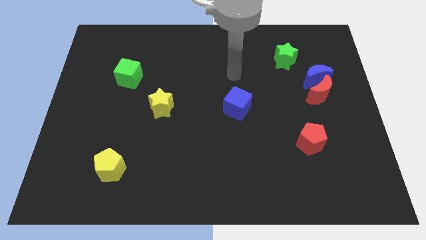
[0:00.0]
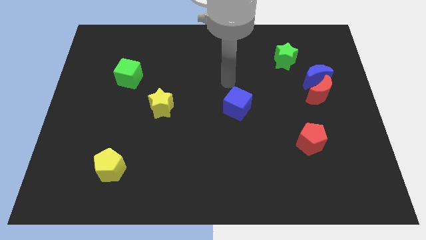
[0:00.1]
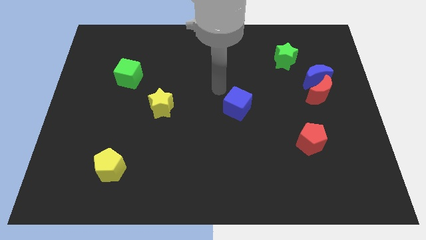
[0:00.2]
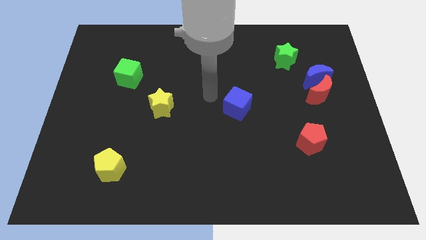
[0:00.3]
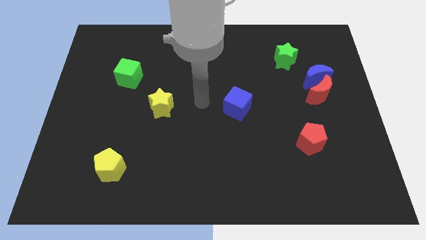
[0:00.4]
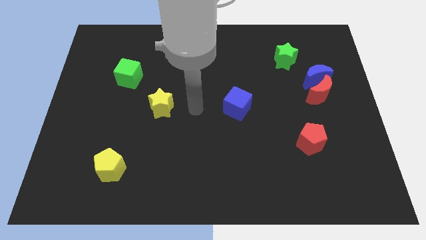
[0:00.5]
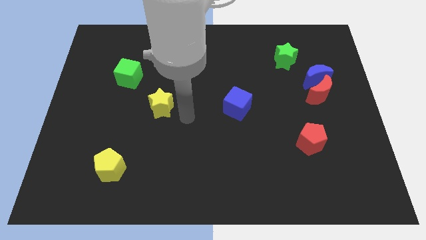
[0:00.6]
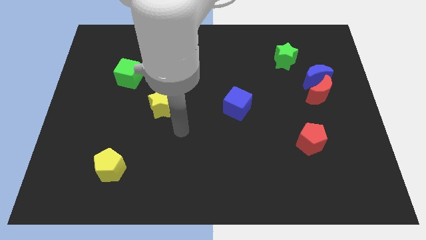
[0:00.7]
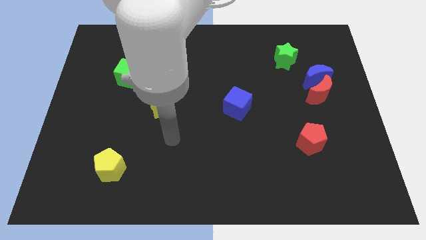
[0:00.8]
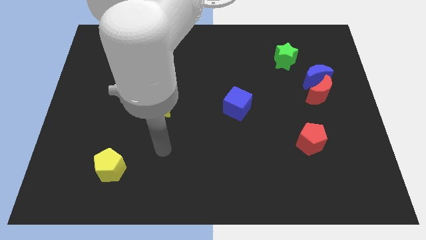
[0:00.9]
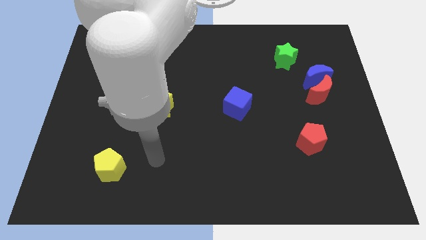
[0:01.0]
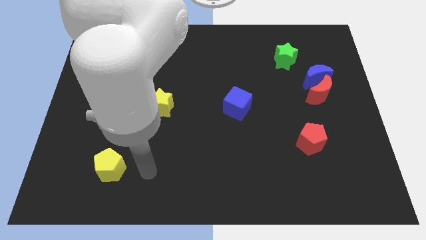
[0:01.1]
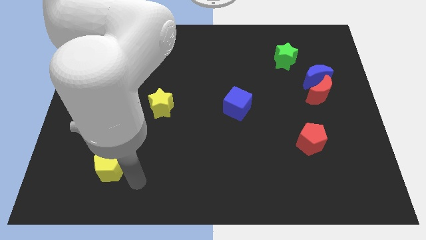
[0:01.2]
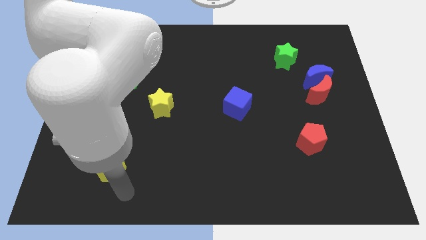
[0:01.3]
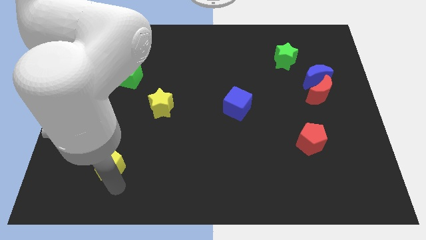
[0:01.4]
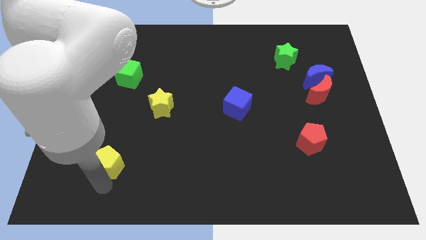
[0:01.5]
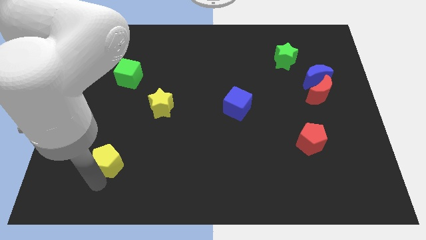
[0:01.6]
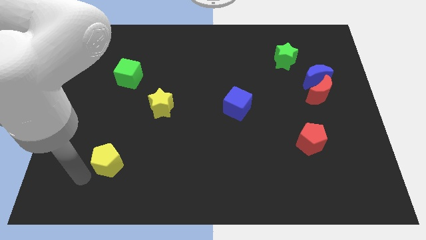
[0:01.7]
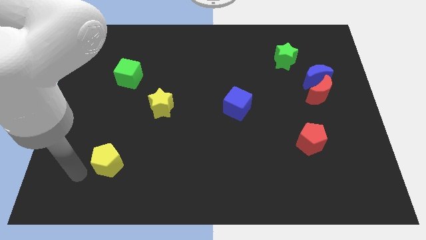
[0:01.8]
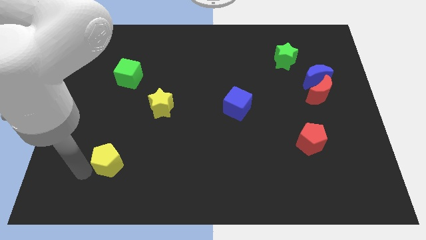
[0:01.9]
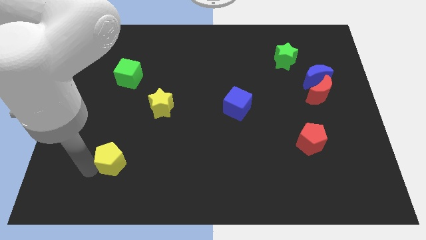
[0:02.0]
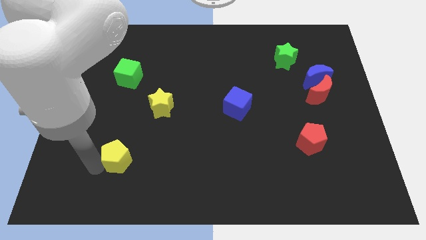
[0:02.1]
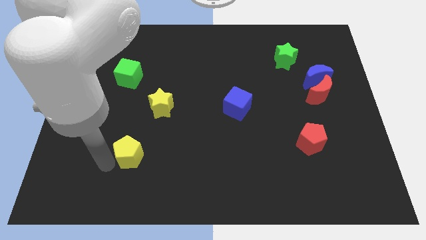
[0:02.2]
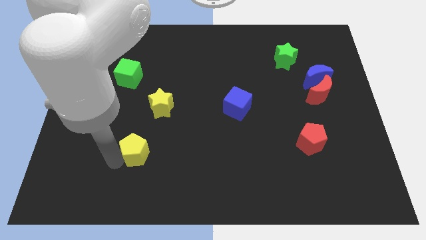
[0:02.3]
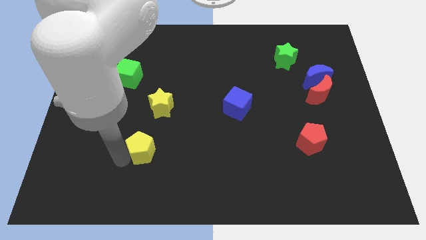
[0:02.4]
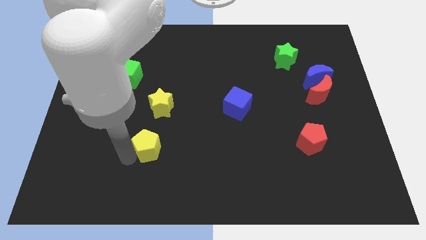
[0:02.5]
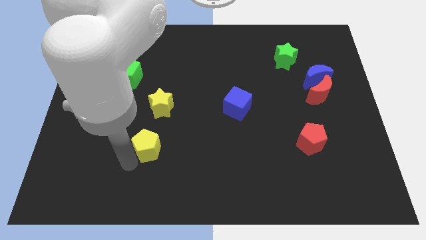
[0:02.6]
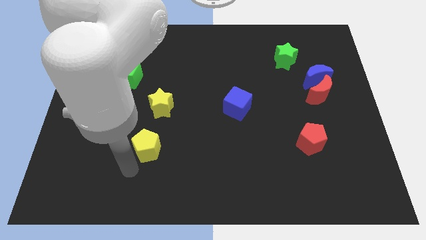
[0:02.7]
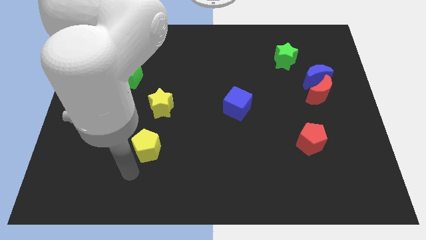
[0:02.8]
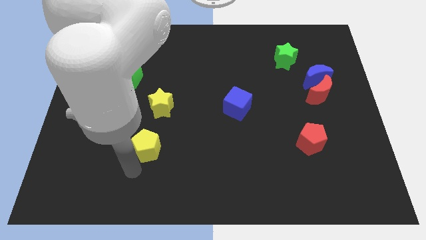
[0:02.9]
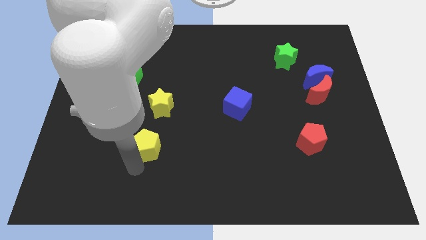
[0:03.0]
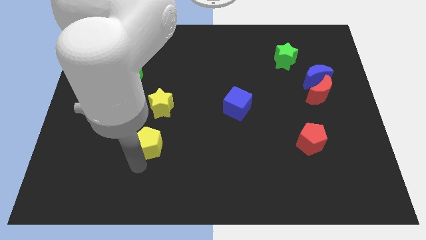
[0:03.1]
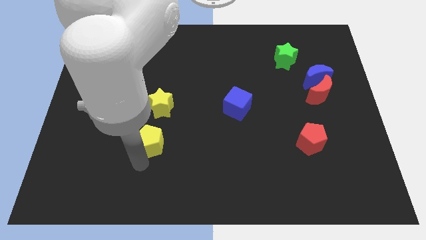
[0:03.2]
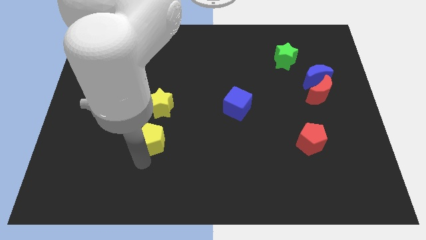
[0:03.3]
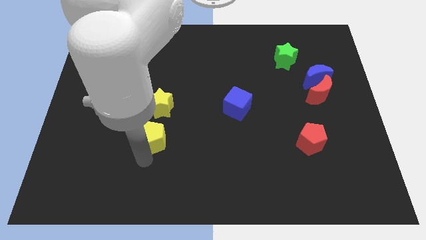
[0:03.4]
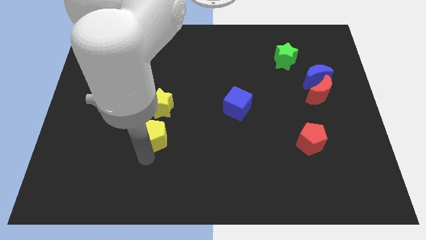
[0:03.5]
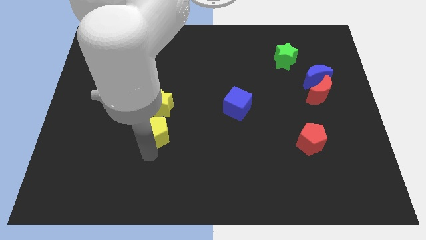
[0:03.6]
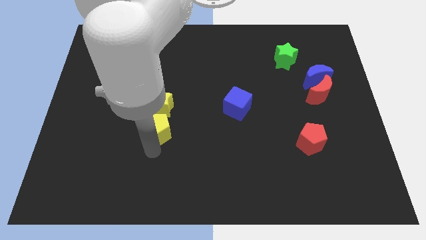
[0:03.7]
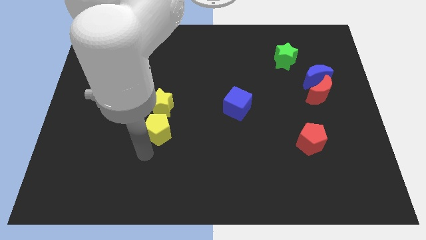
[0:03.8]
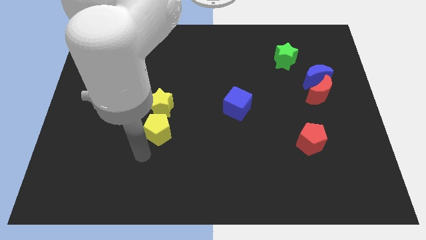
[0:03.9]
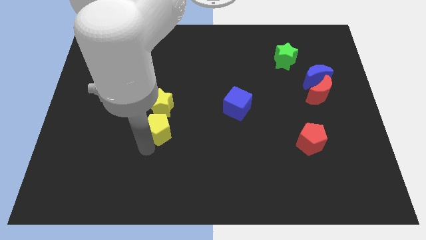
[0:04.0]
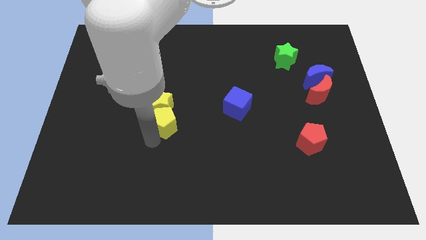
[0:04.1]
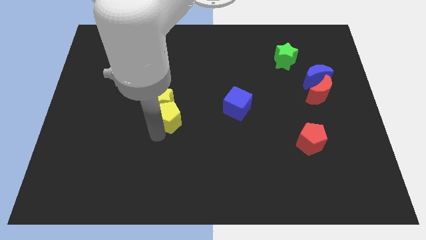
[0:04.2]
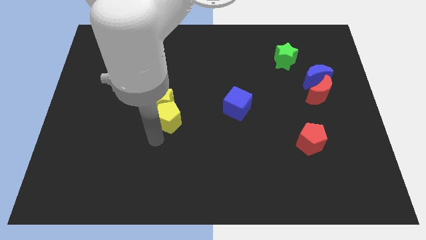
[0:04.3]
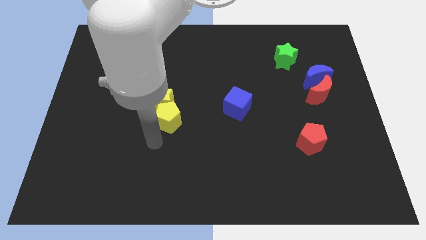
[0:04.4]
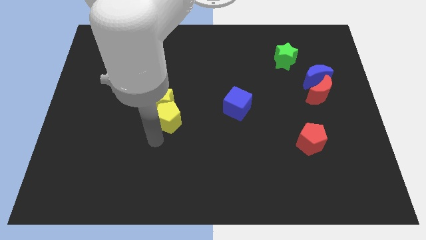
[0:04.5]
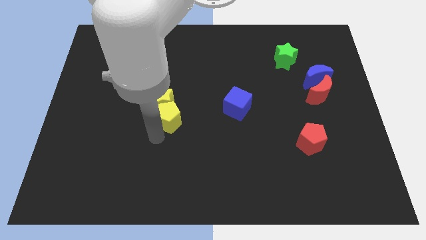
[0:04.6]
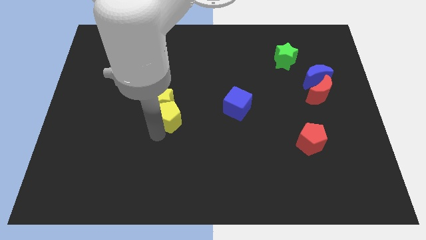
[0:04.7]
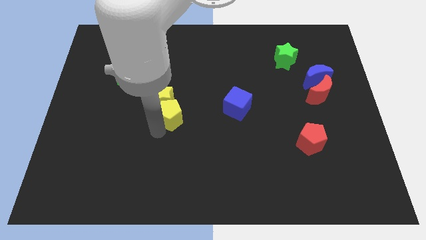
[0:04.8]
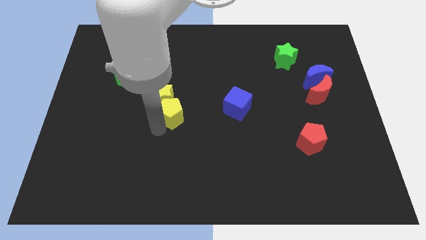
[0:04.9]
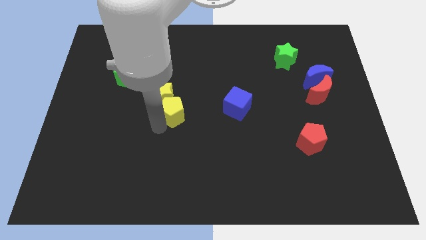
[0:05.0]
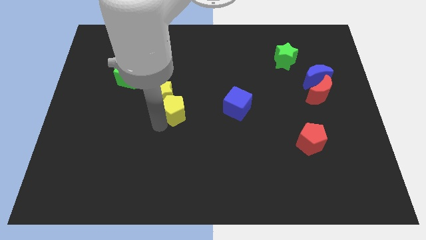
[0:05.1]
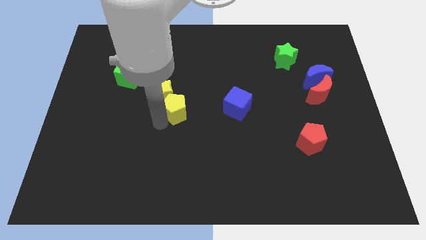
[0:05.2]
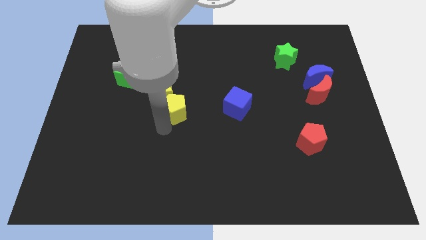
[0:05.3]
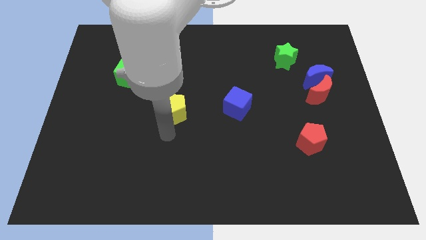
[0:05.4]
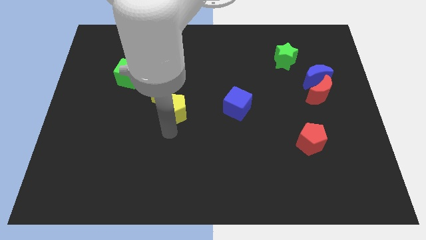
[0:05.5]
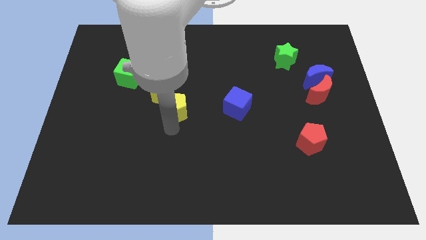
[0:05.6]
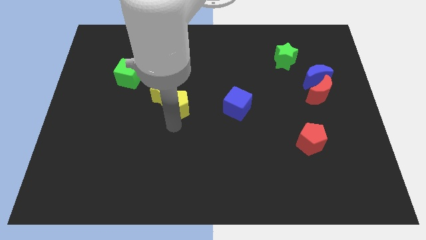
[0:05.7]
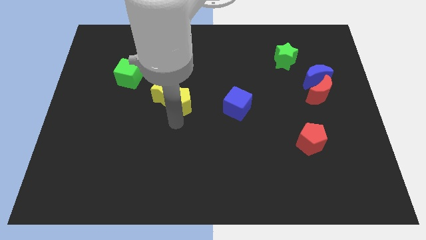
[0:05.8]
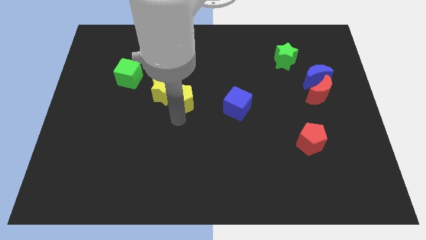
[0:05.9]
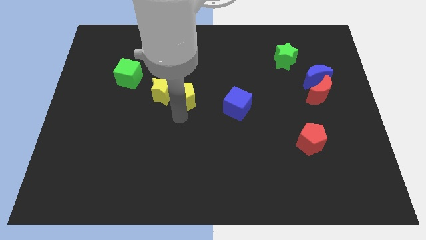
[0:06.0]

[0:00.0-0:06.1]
move the yellow pentagon diagonally up and to the right of the yellow star

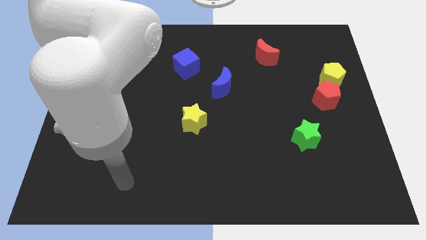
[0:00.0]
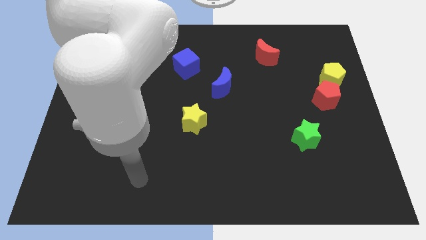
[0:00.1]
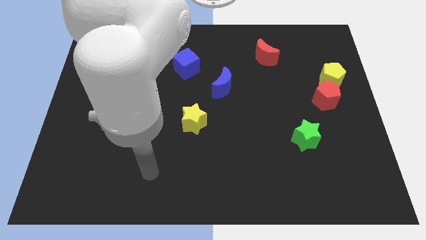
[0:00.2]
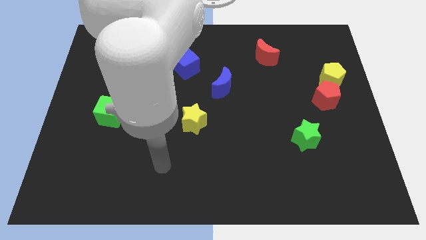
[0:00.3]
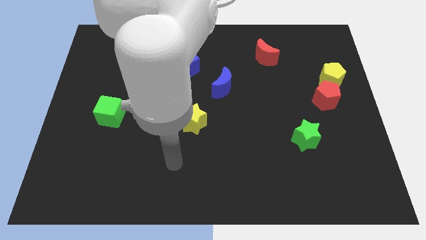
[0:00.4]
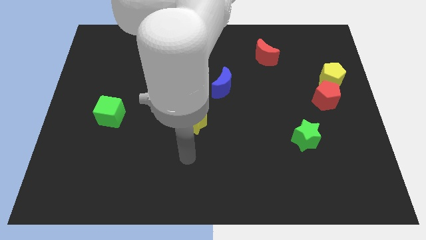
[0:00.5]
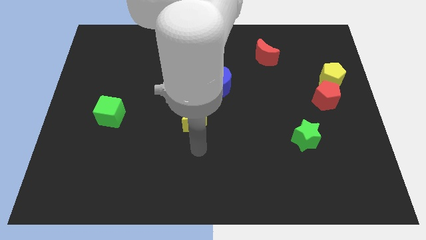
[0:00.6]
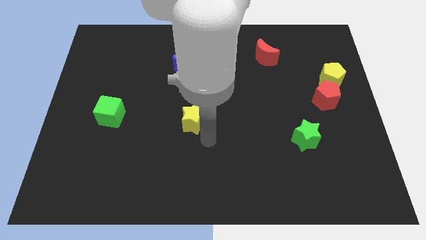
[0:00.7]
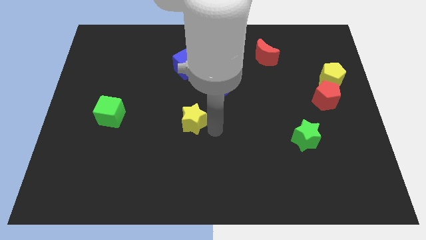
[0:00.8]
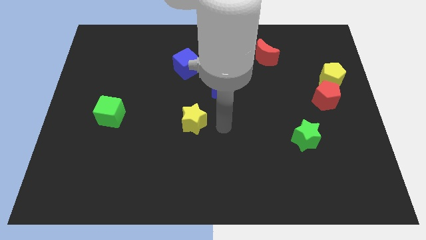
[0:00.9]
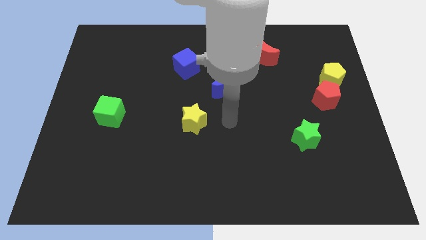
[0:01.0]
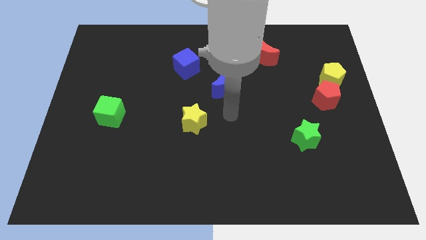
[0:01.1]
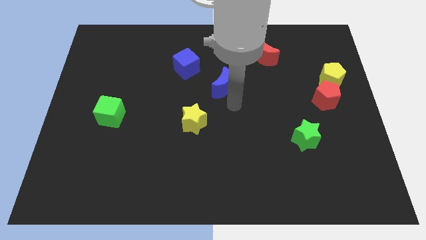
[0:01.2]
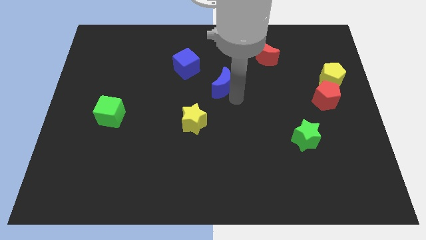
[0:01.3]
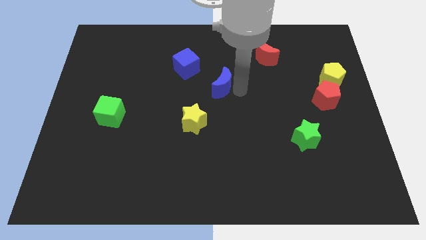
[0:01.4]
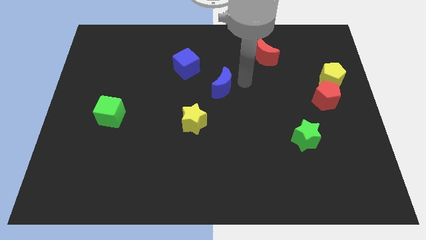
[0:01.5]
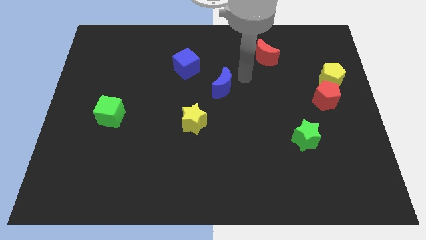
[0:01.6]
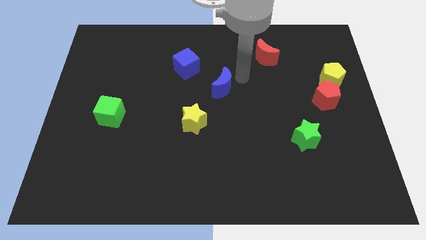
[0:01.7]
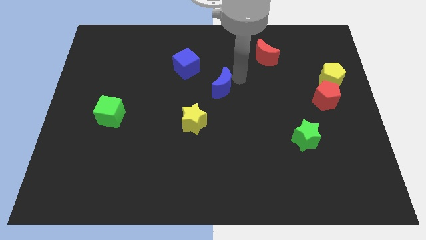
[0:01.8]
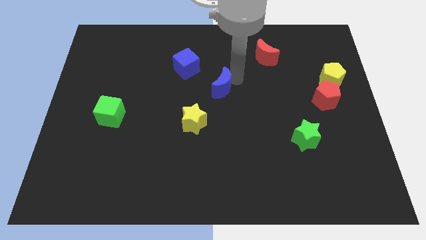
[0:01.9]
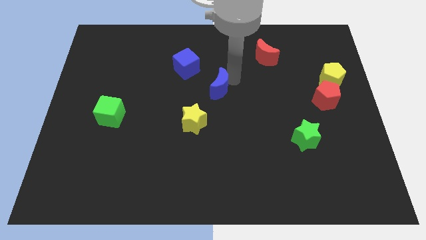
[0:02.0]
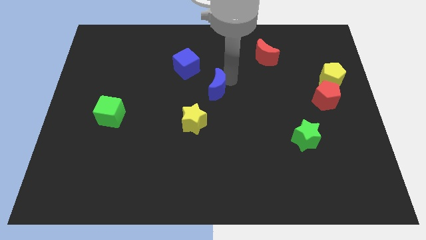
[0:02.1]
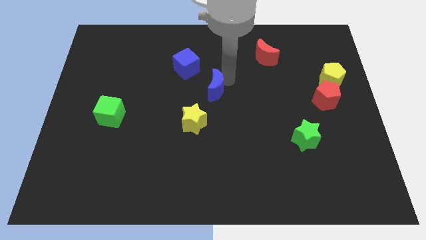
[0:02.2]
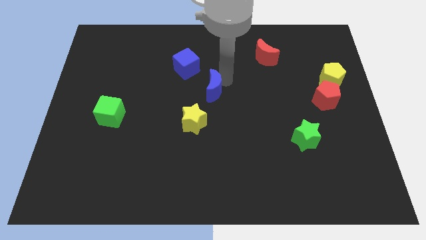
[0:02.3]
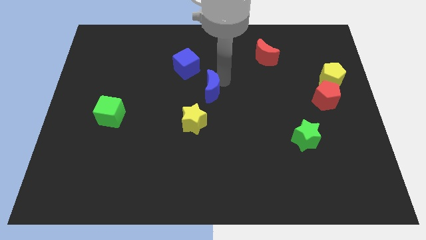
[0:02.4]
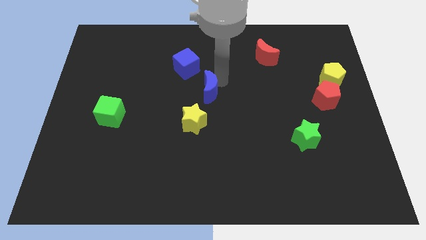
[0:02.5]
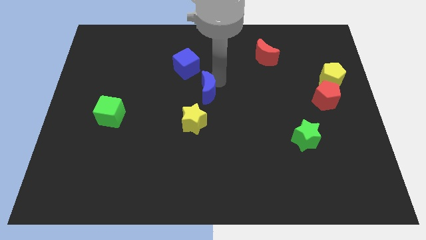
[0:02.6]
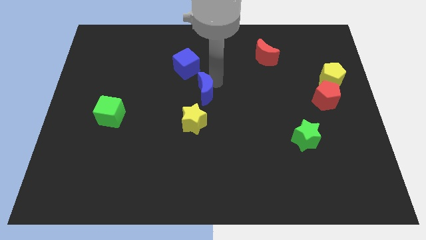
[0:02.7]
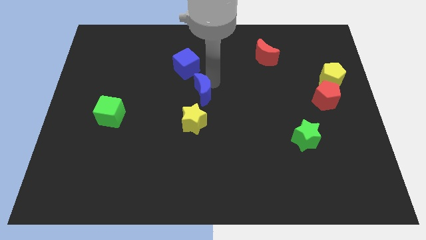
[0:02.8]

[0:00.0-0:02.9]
push the blue moon to the bottom side of the blue cube
